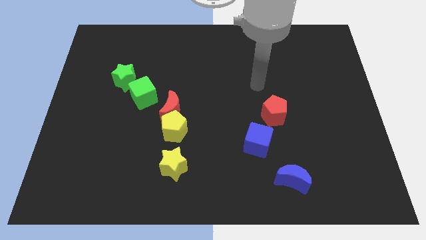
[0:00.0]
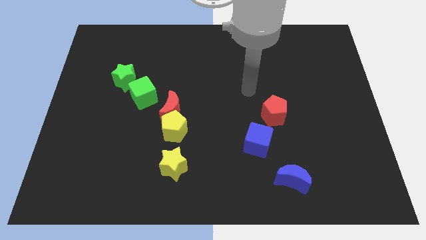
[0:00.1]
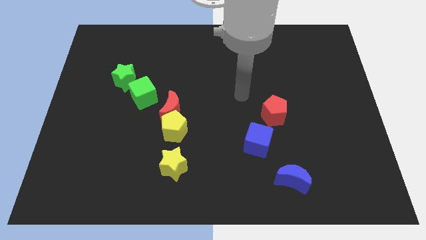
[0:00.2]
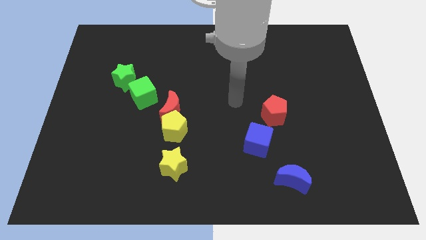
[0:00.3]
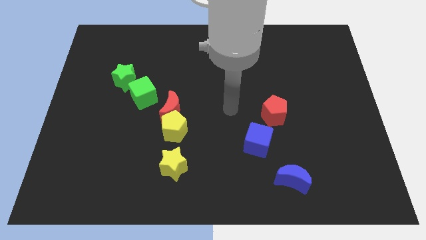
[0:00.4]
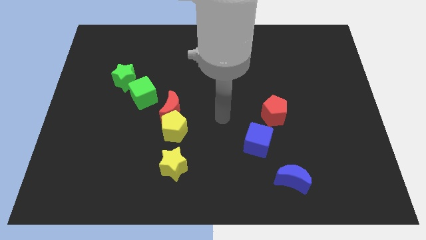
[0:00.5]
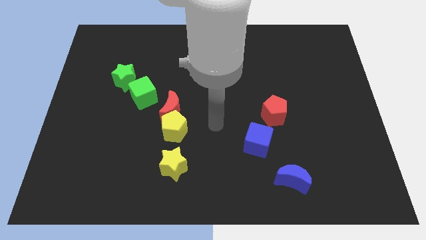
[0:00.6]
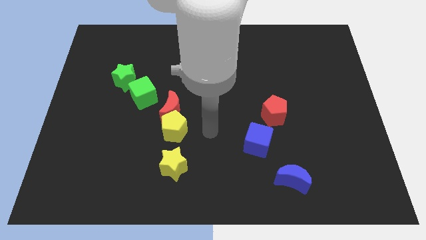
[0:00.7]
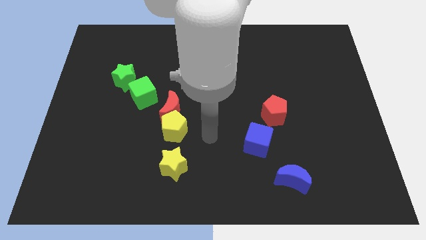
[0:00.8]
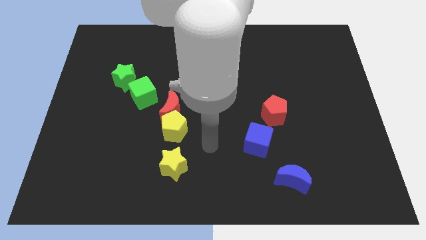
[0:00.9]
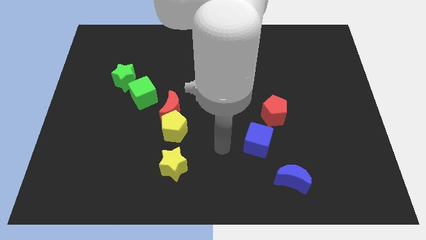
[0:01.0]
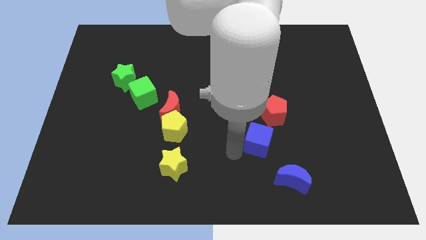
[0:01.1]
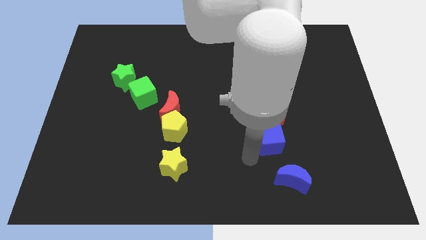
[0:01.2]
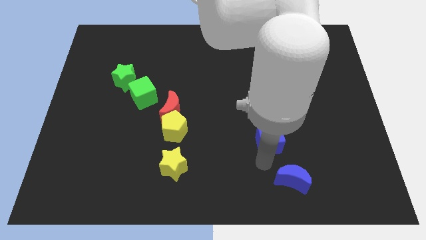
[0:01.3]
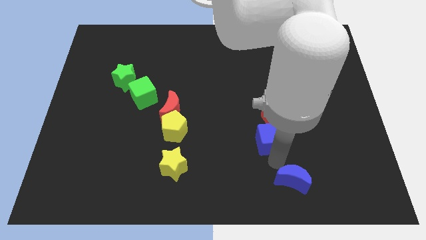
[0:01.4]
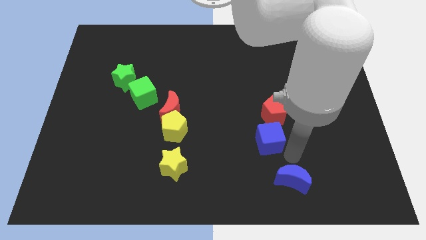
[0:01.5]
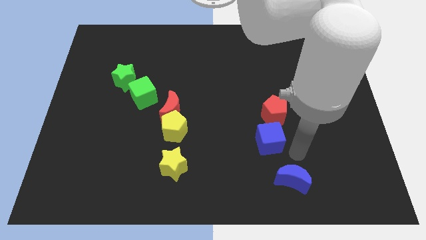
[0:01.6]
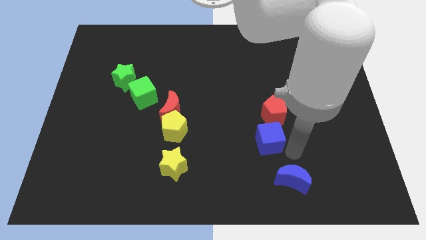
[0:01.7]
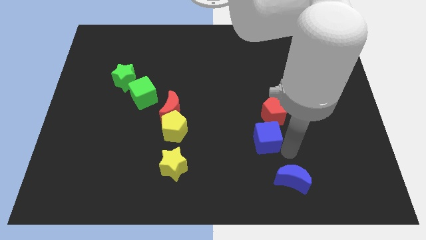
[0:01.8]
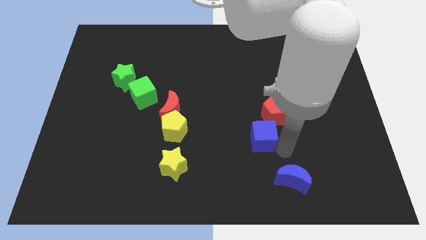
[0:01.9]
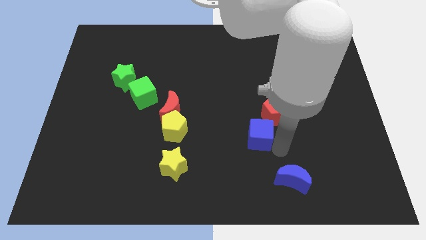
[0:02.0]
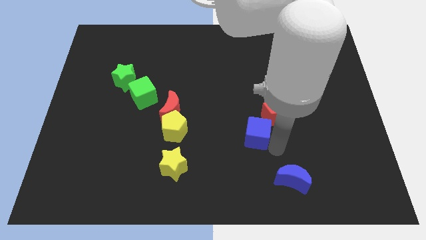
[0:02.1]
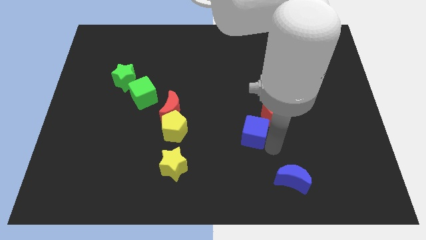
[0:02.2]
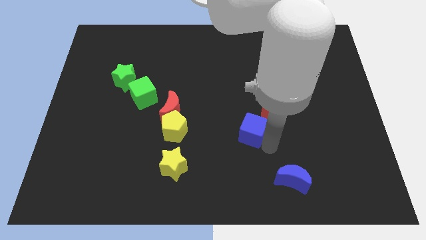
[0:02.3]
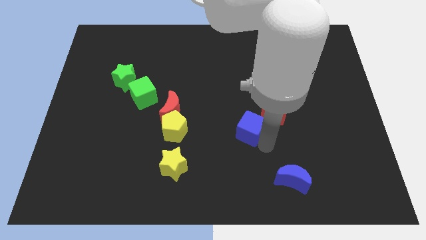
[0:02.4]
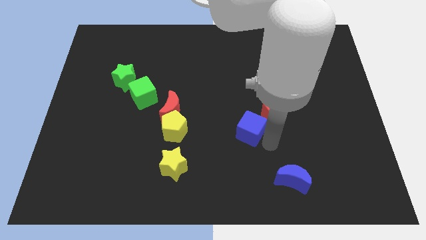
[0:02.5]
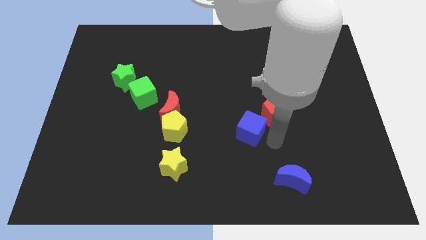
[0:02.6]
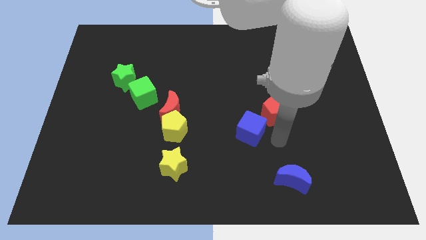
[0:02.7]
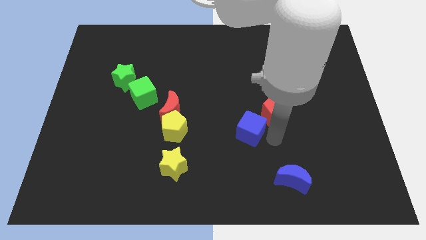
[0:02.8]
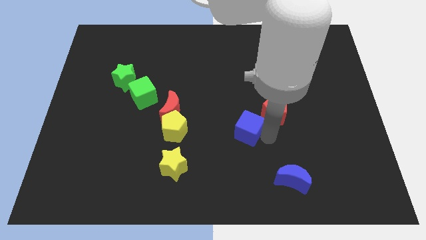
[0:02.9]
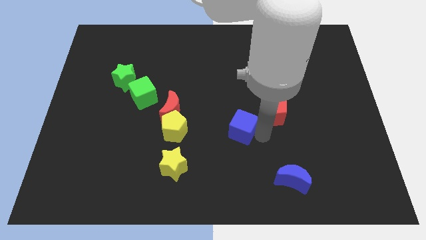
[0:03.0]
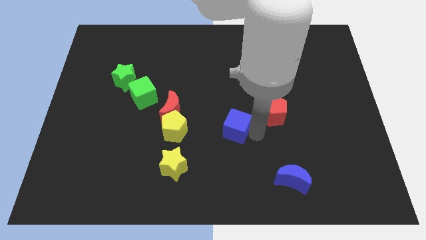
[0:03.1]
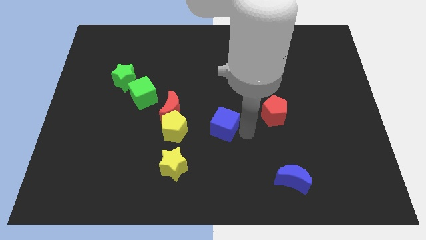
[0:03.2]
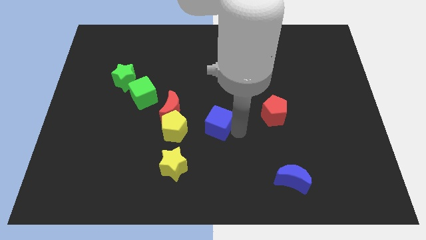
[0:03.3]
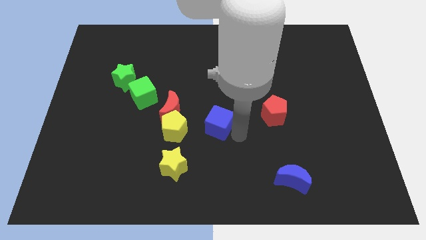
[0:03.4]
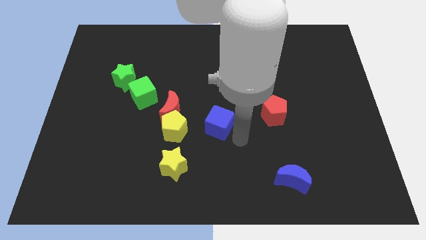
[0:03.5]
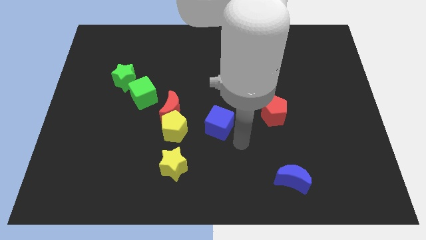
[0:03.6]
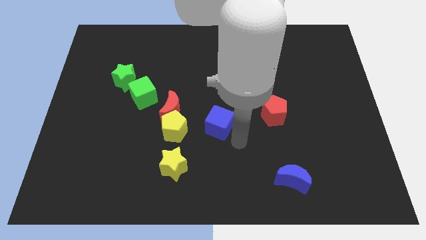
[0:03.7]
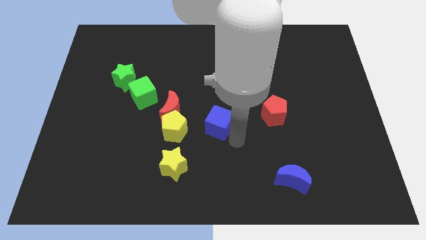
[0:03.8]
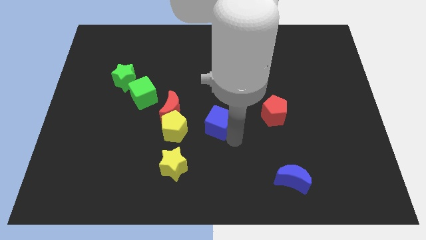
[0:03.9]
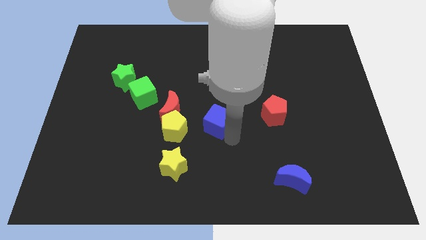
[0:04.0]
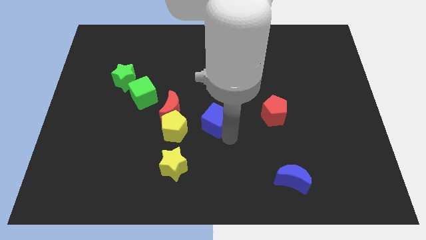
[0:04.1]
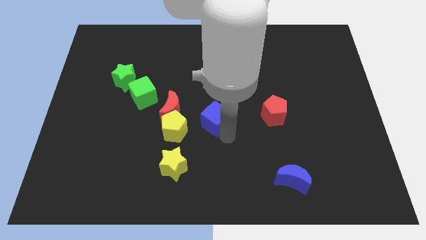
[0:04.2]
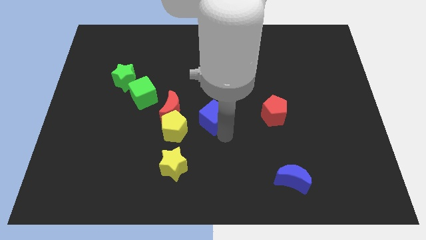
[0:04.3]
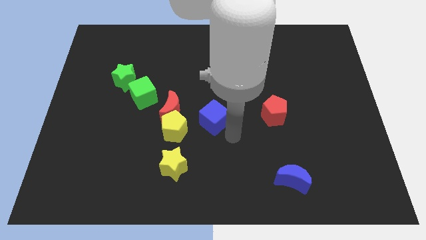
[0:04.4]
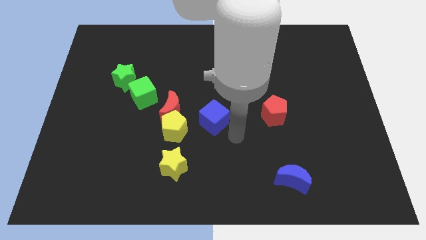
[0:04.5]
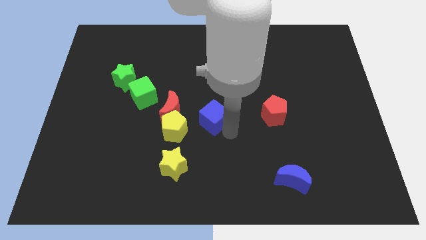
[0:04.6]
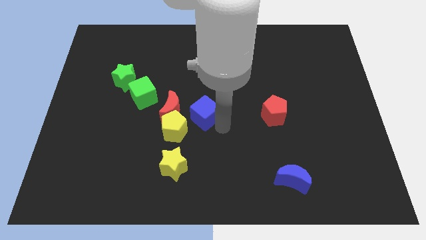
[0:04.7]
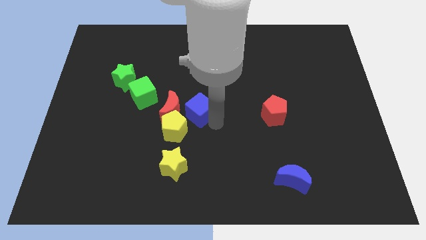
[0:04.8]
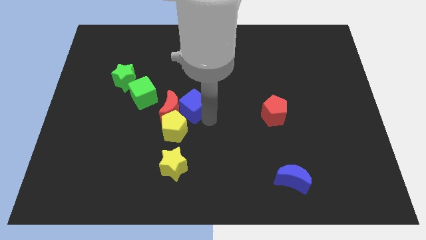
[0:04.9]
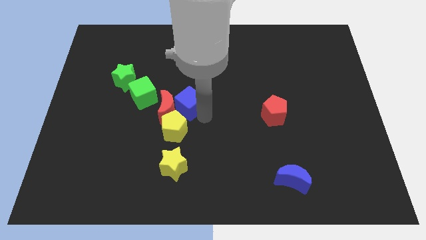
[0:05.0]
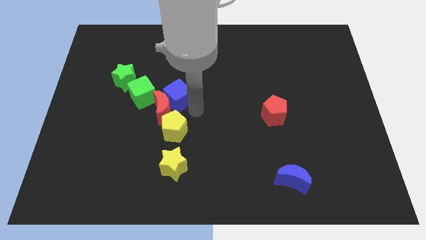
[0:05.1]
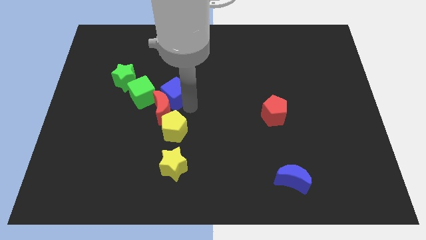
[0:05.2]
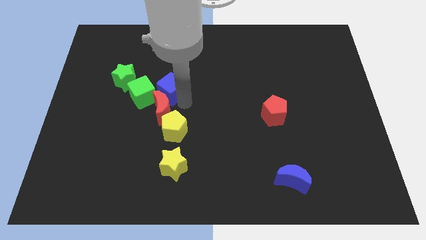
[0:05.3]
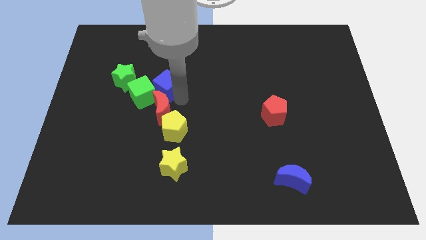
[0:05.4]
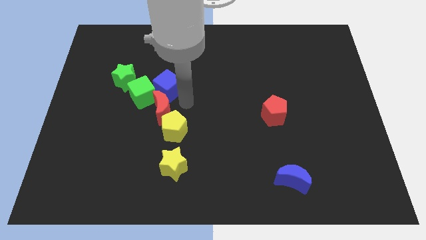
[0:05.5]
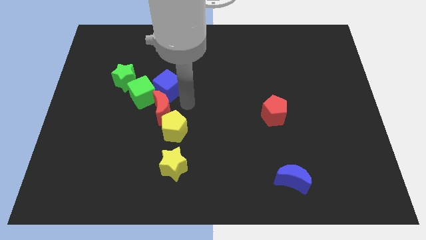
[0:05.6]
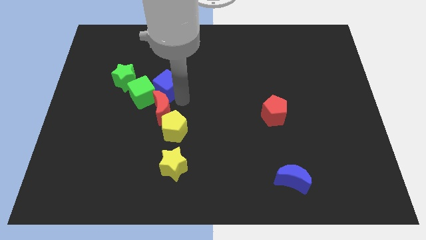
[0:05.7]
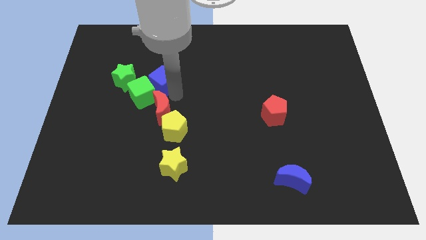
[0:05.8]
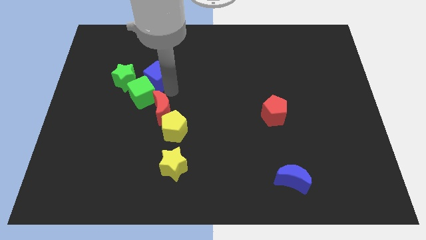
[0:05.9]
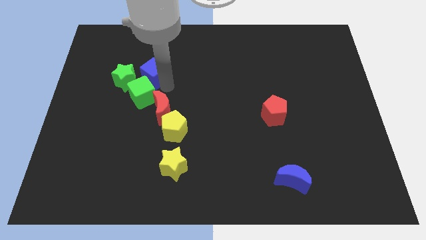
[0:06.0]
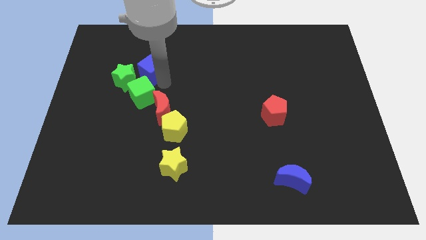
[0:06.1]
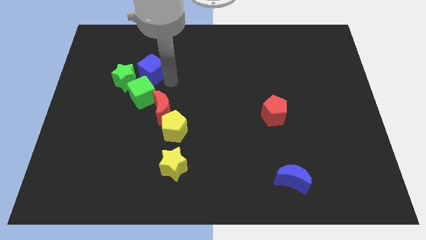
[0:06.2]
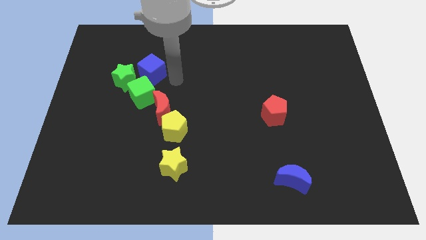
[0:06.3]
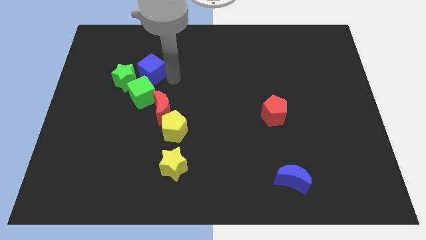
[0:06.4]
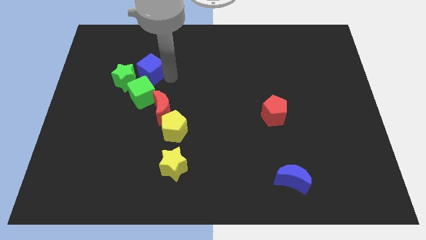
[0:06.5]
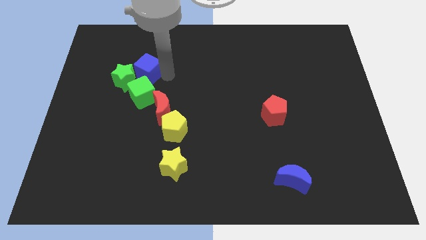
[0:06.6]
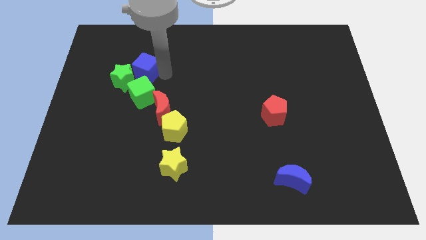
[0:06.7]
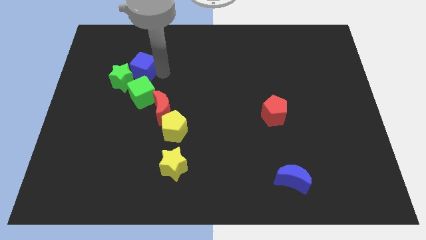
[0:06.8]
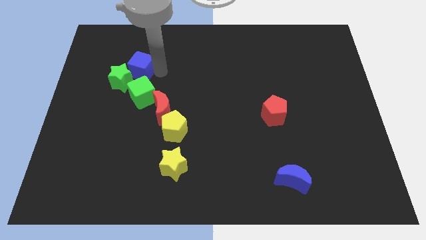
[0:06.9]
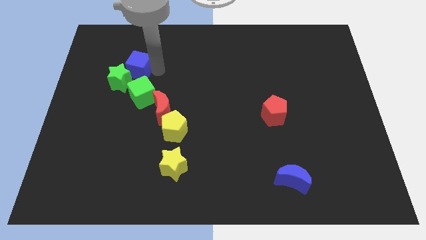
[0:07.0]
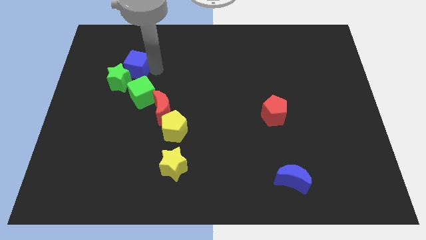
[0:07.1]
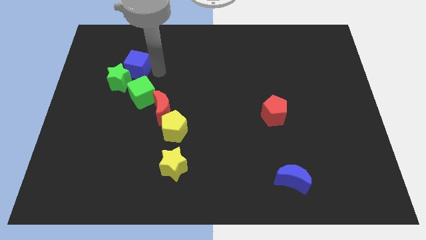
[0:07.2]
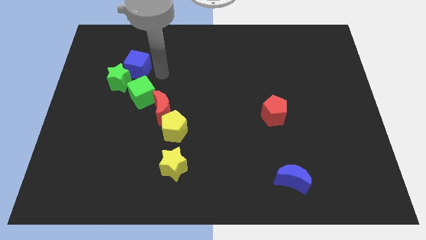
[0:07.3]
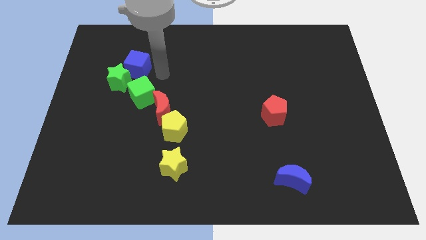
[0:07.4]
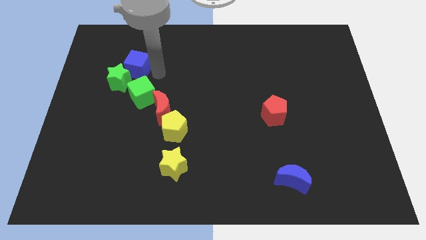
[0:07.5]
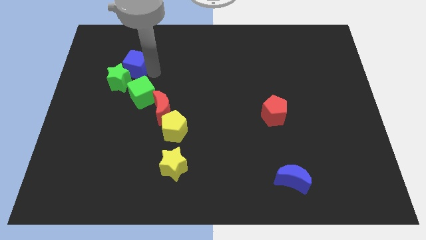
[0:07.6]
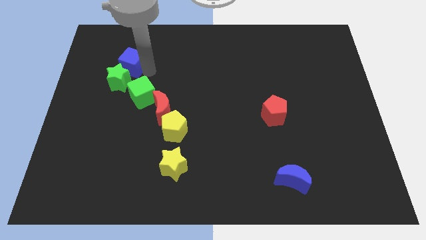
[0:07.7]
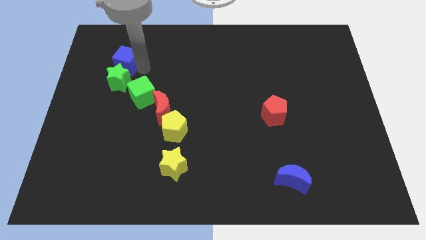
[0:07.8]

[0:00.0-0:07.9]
push the blue cube to the top left of the green star

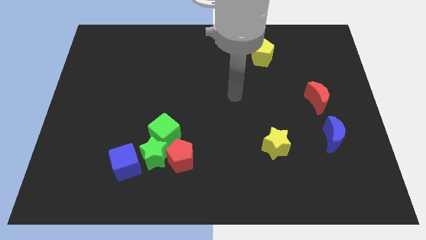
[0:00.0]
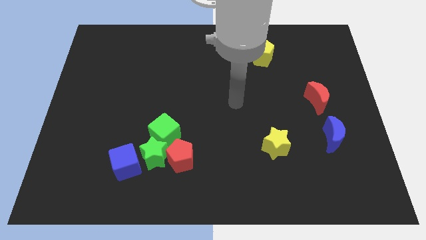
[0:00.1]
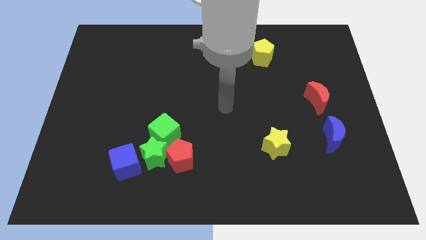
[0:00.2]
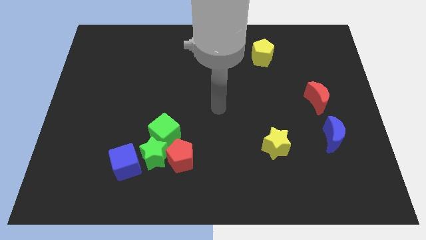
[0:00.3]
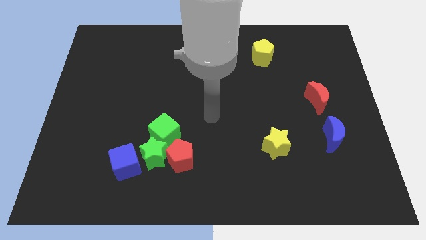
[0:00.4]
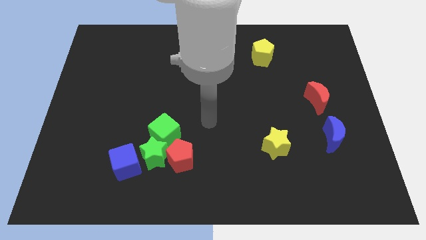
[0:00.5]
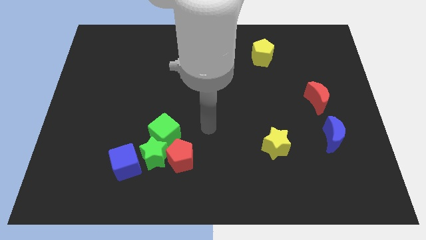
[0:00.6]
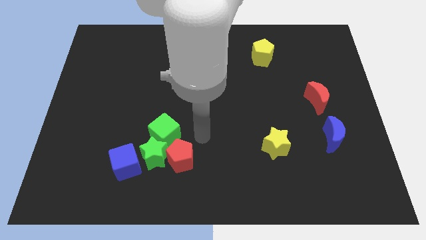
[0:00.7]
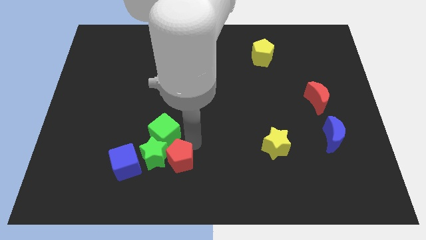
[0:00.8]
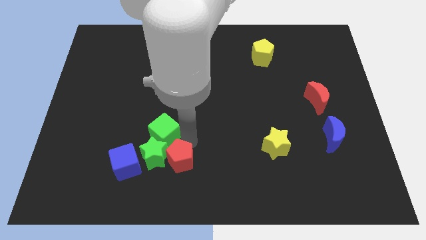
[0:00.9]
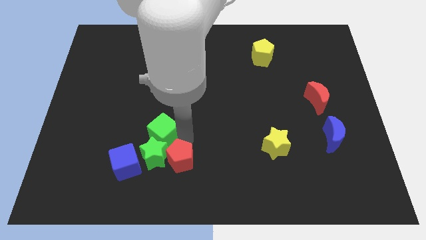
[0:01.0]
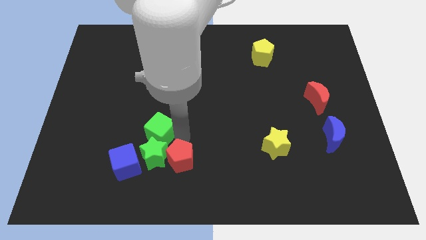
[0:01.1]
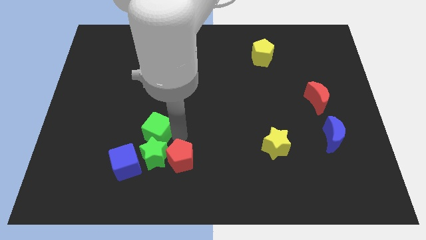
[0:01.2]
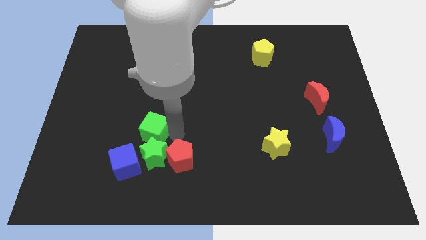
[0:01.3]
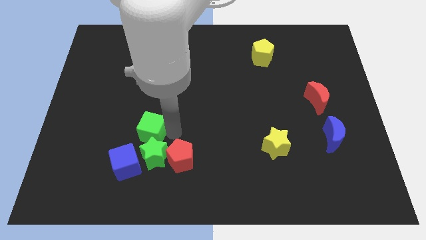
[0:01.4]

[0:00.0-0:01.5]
put the green cube above the blue cube
